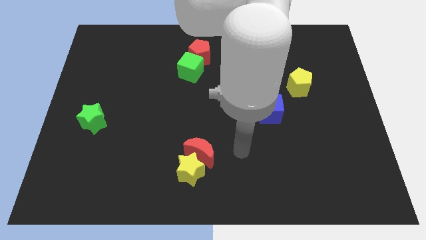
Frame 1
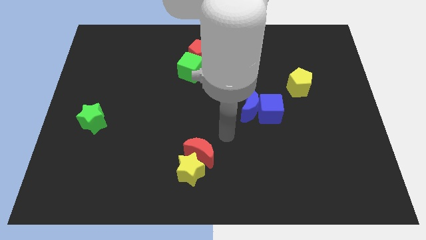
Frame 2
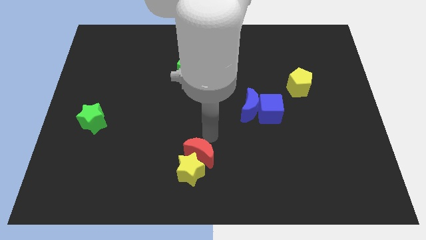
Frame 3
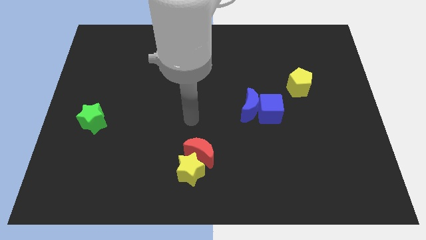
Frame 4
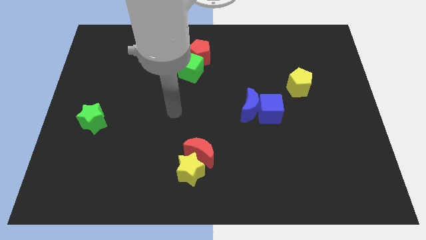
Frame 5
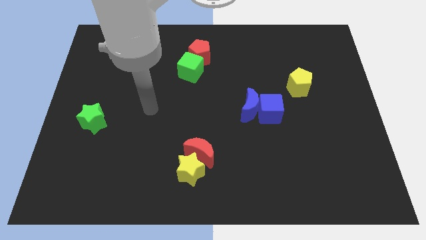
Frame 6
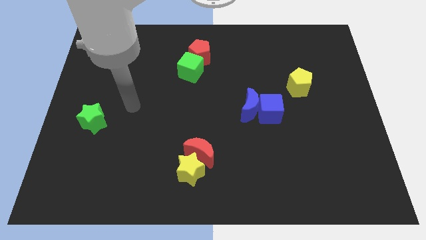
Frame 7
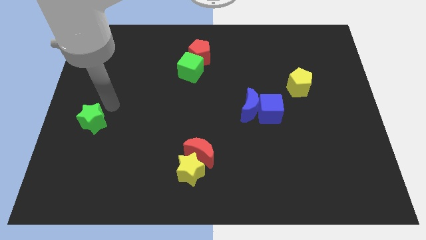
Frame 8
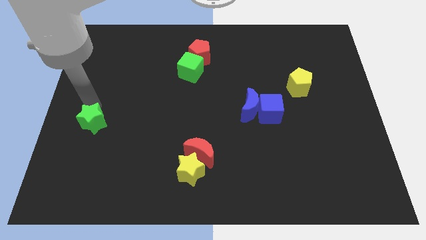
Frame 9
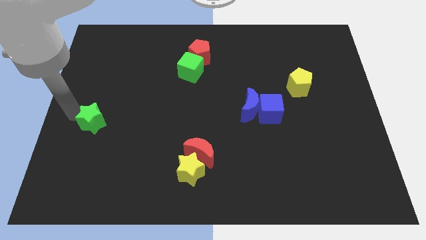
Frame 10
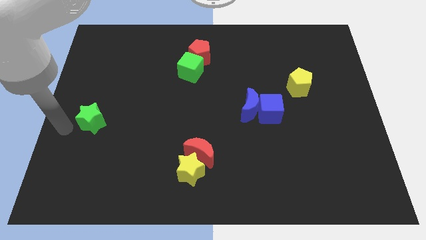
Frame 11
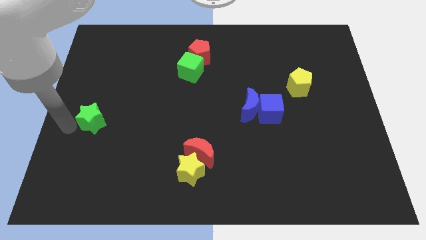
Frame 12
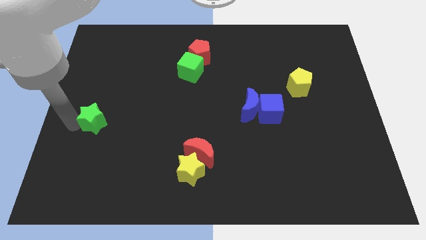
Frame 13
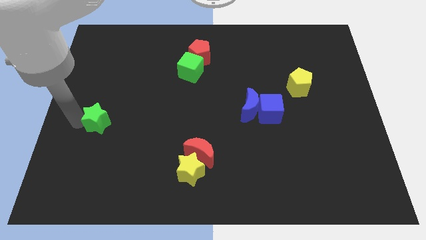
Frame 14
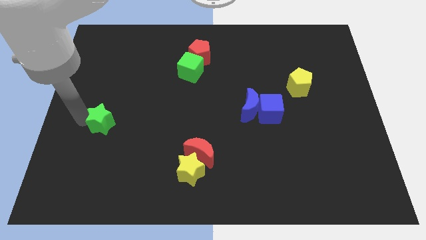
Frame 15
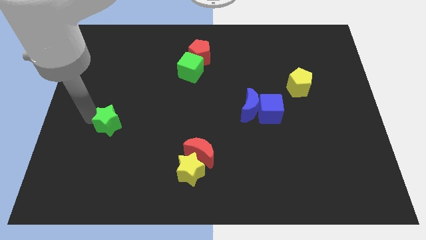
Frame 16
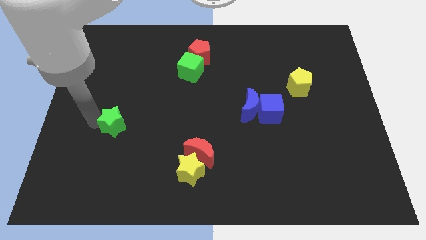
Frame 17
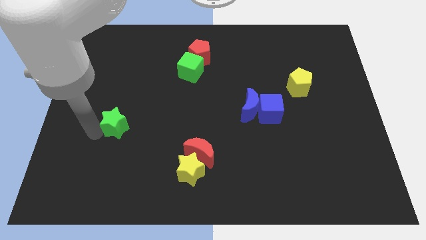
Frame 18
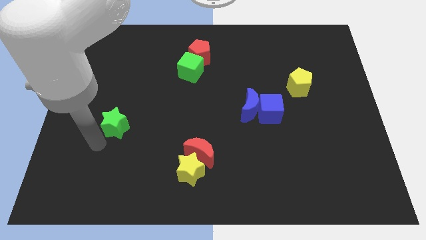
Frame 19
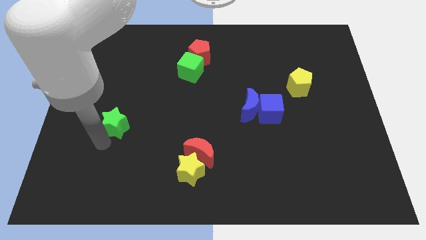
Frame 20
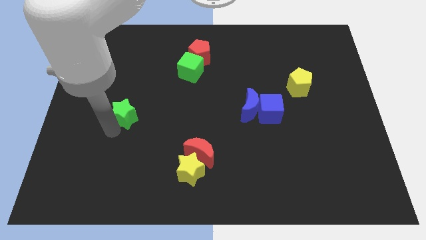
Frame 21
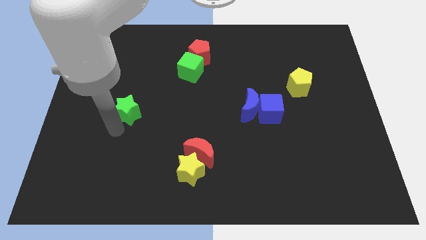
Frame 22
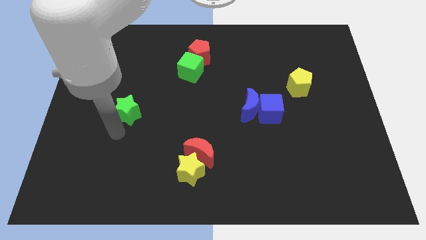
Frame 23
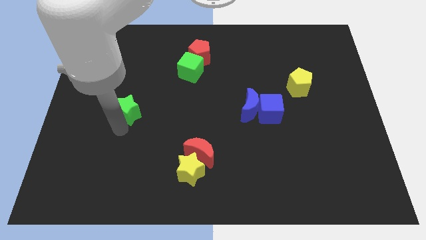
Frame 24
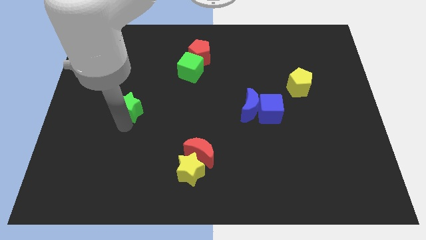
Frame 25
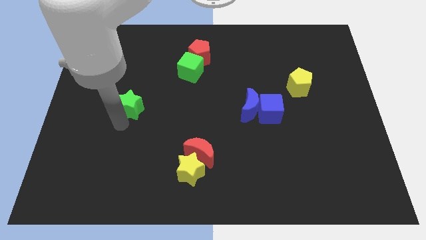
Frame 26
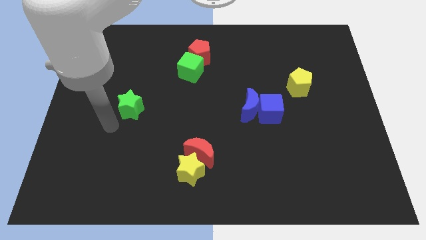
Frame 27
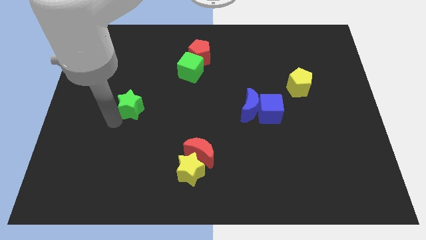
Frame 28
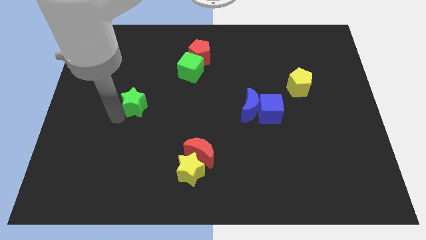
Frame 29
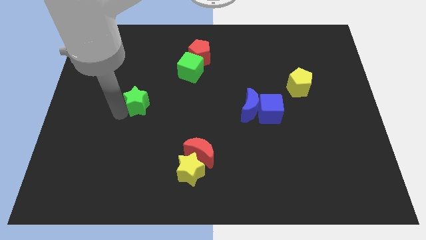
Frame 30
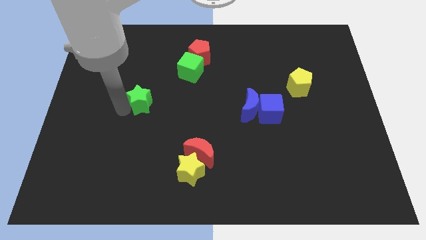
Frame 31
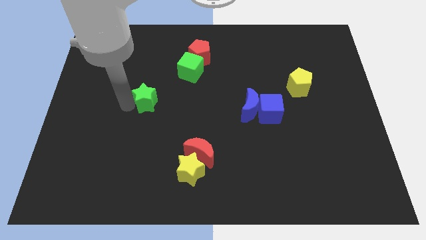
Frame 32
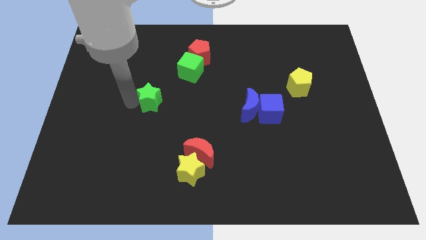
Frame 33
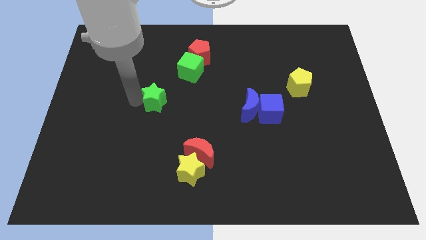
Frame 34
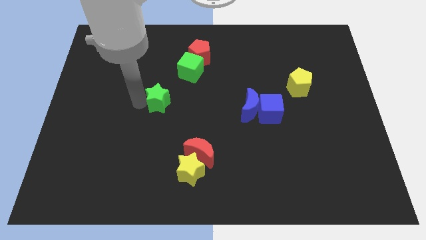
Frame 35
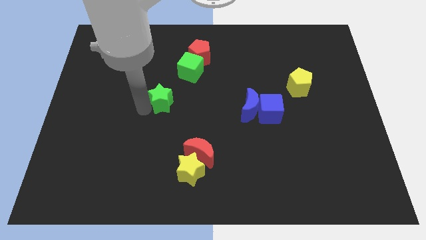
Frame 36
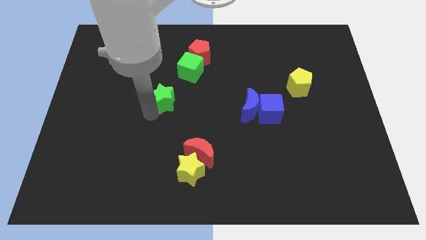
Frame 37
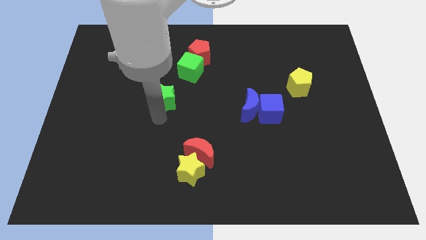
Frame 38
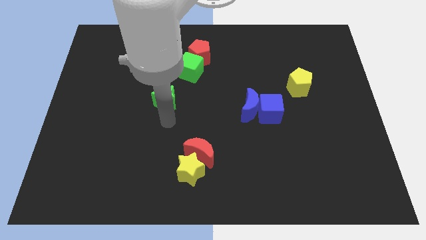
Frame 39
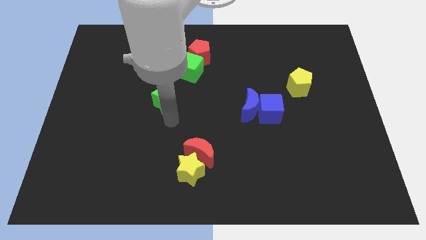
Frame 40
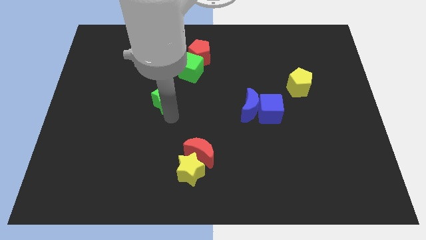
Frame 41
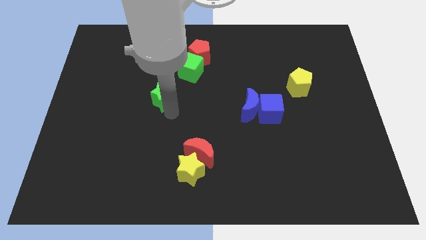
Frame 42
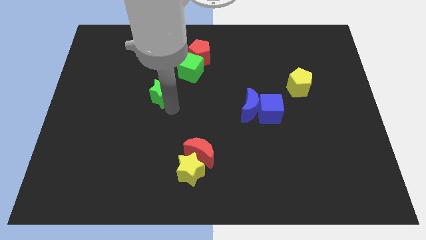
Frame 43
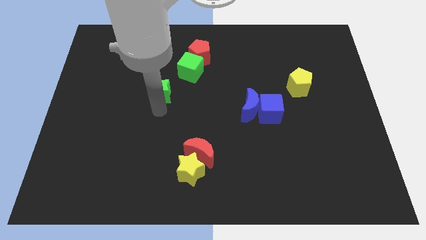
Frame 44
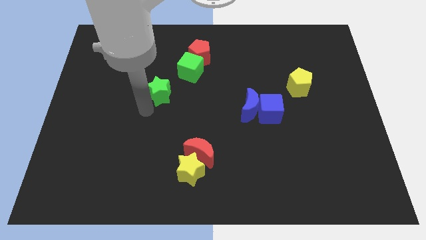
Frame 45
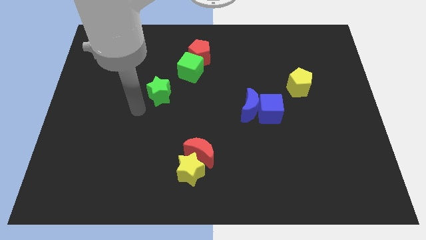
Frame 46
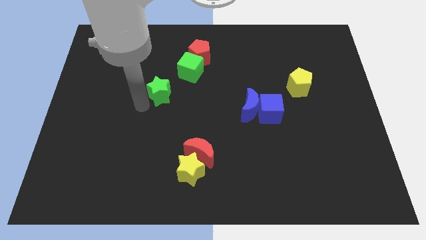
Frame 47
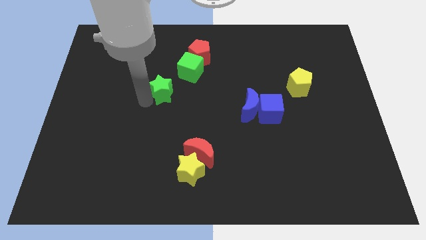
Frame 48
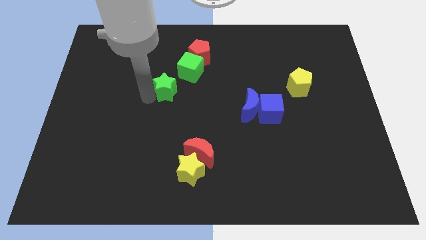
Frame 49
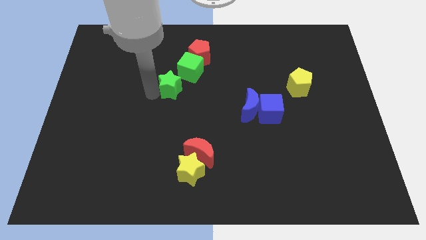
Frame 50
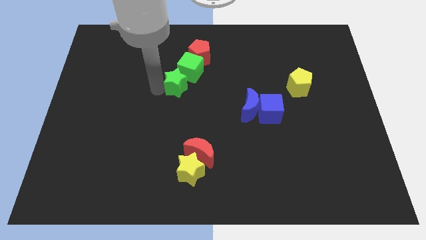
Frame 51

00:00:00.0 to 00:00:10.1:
slide the green star next to the green cube

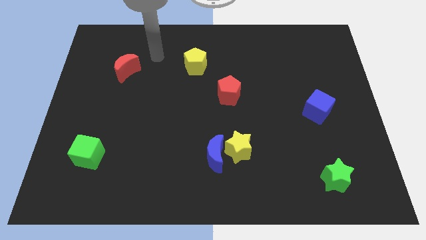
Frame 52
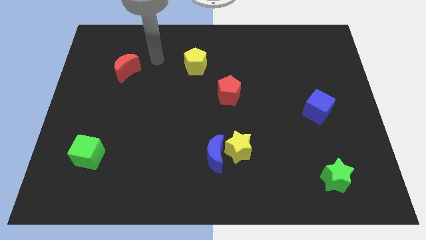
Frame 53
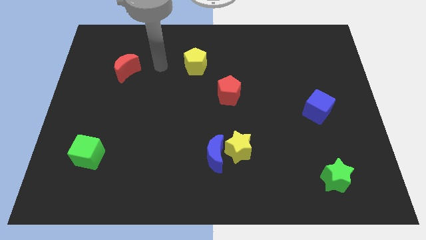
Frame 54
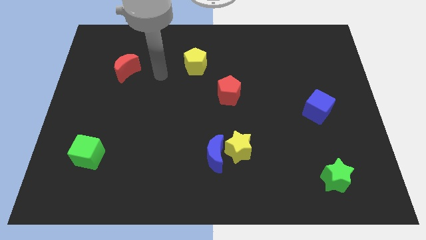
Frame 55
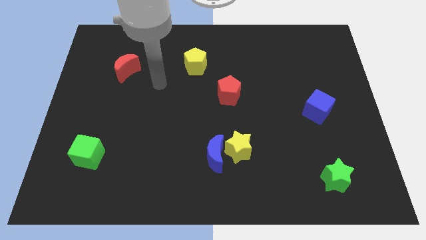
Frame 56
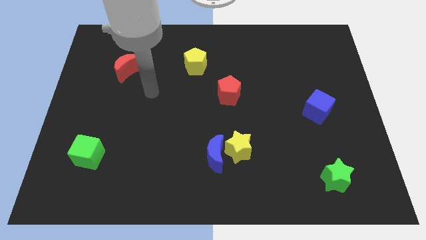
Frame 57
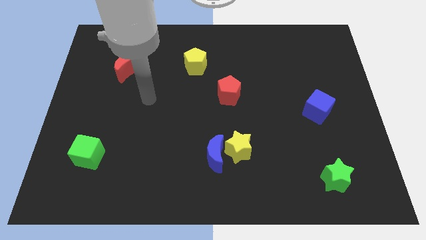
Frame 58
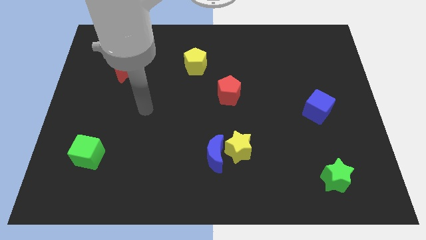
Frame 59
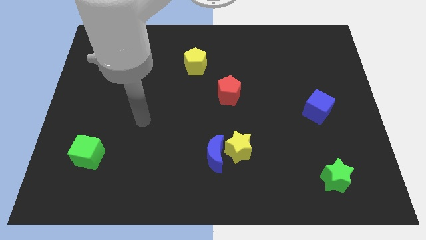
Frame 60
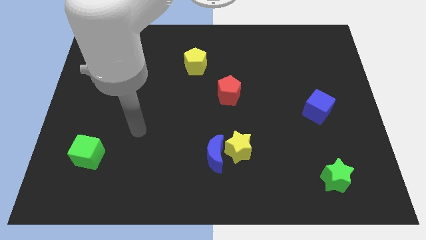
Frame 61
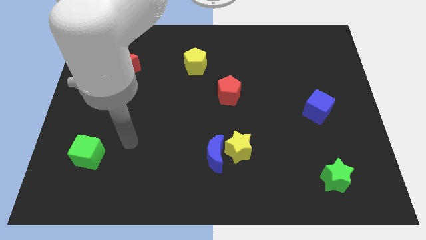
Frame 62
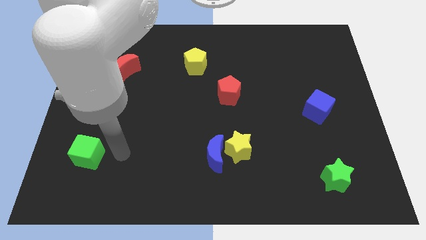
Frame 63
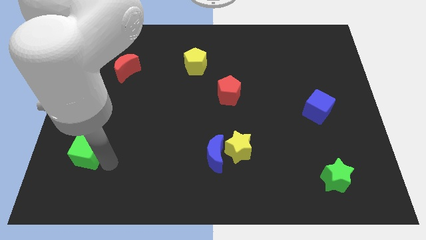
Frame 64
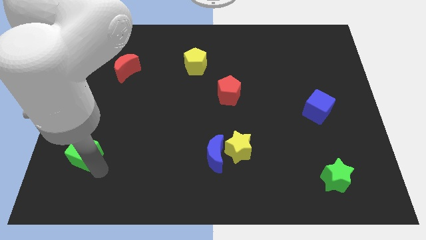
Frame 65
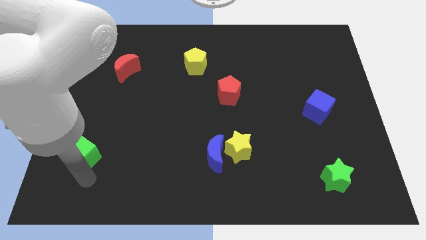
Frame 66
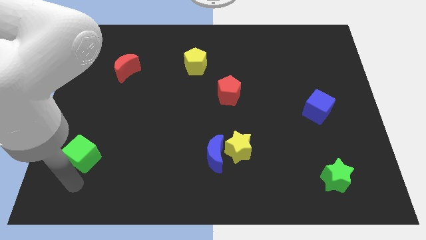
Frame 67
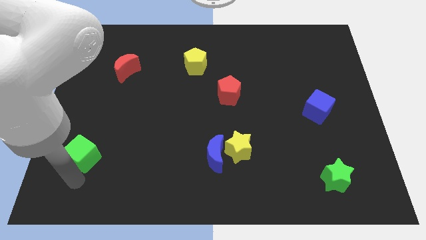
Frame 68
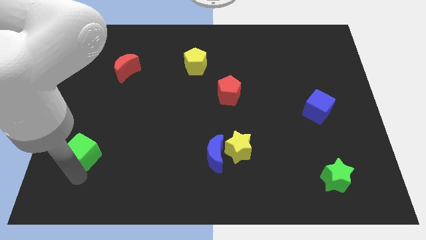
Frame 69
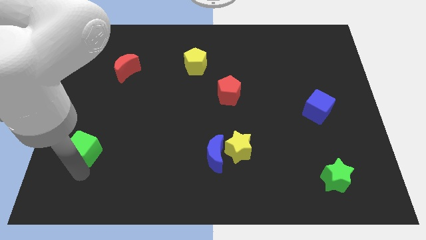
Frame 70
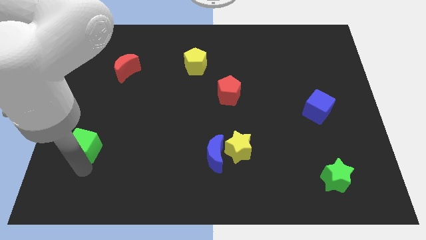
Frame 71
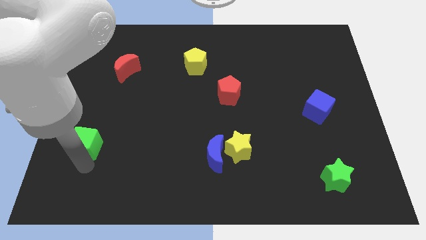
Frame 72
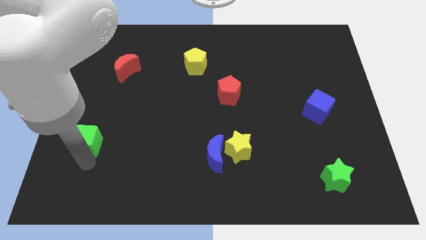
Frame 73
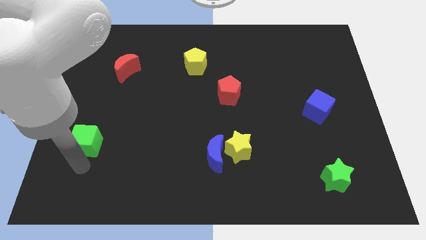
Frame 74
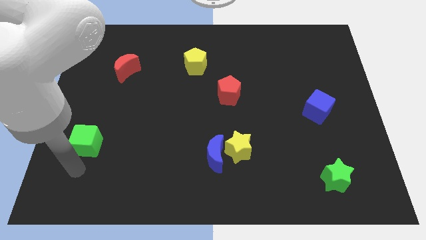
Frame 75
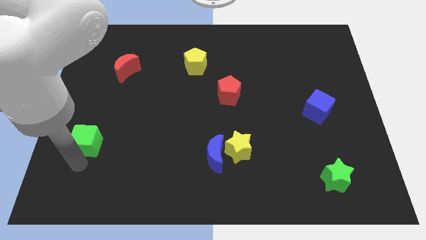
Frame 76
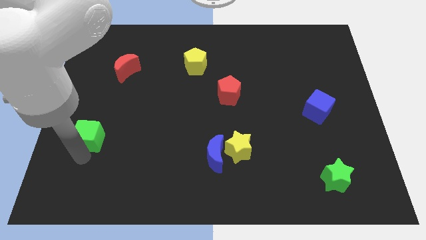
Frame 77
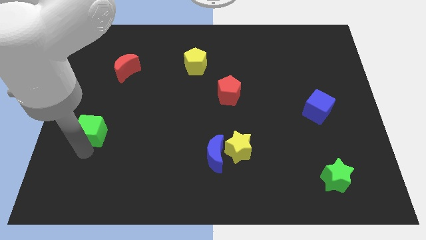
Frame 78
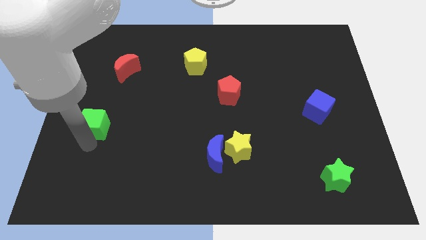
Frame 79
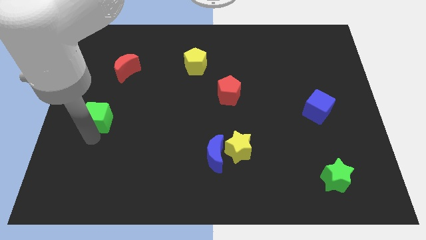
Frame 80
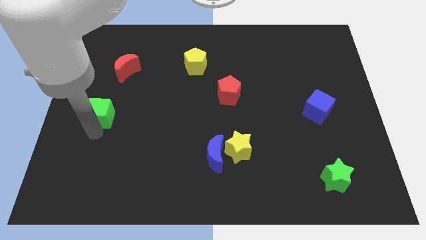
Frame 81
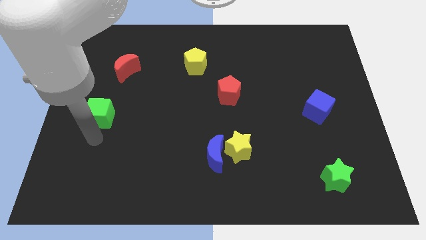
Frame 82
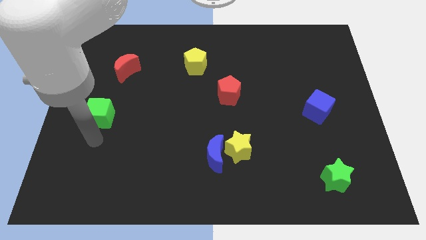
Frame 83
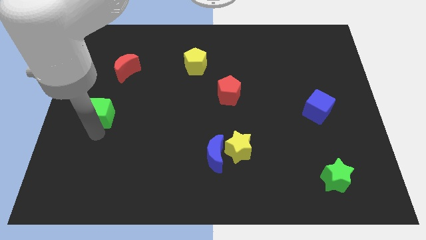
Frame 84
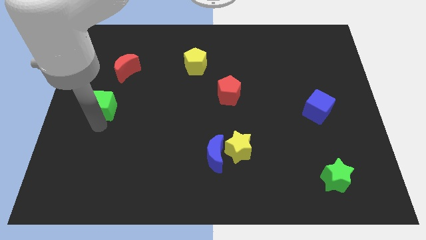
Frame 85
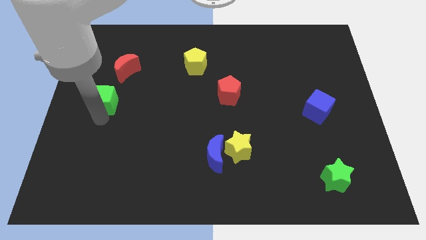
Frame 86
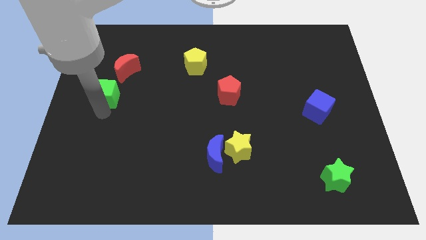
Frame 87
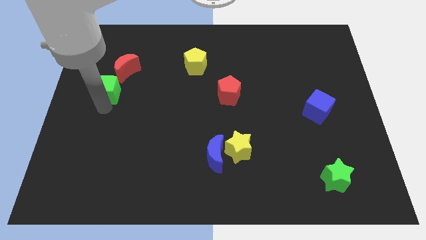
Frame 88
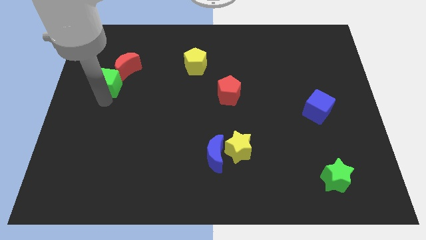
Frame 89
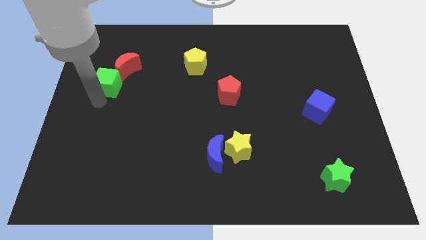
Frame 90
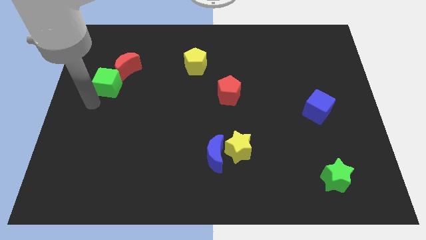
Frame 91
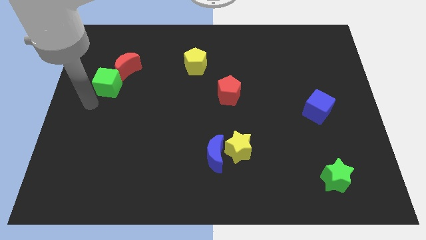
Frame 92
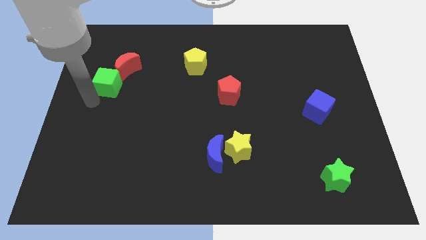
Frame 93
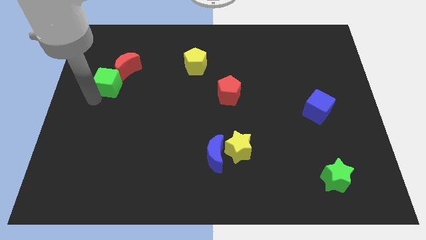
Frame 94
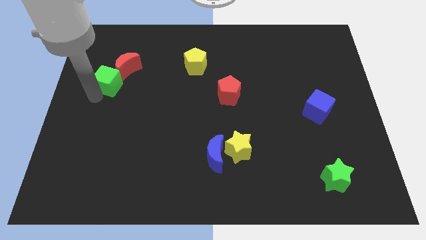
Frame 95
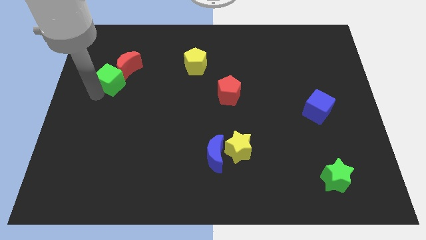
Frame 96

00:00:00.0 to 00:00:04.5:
move the green cube towards the red moon
